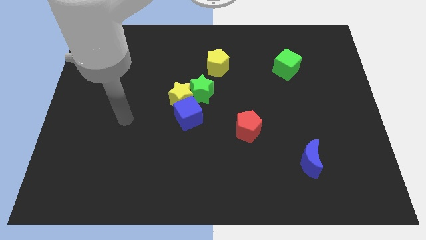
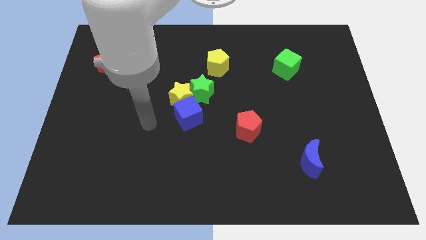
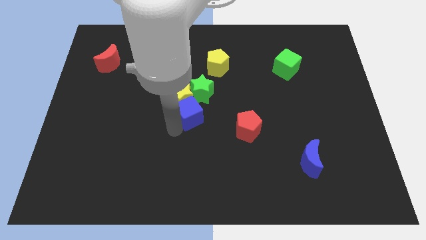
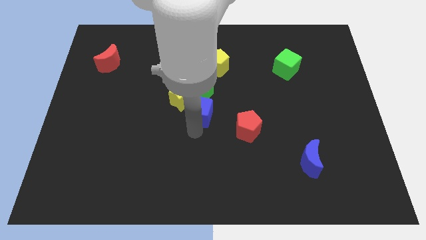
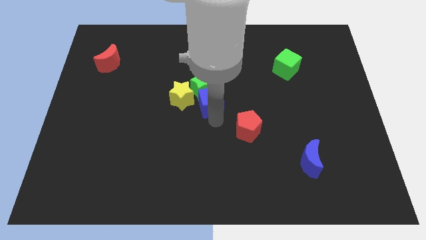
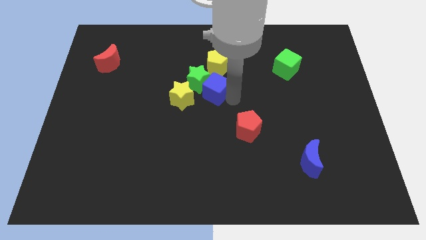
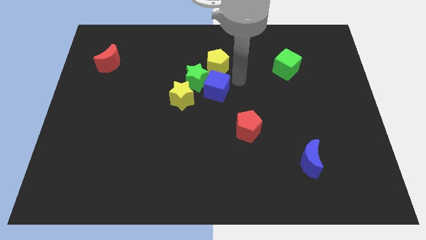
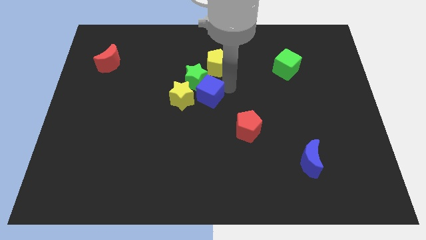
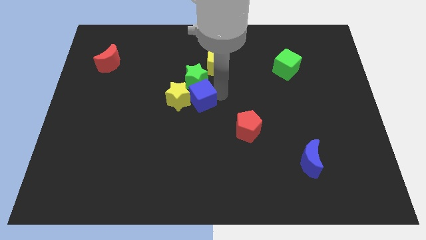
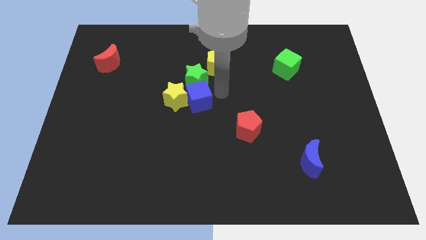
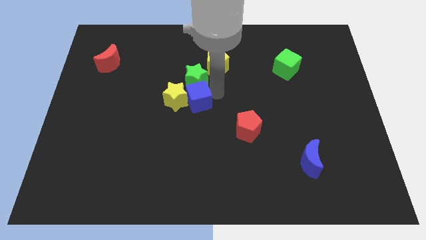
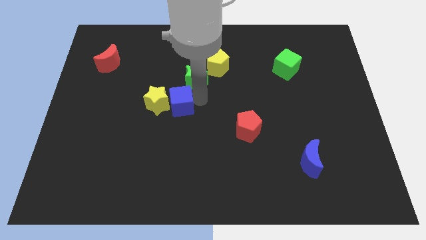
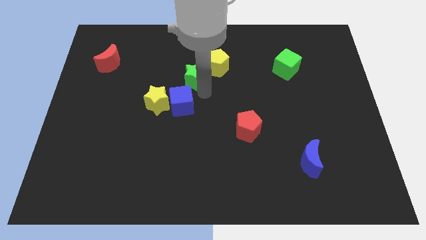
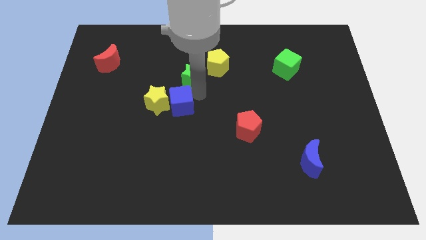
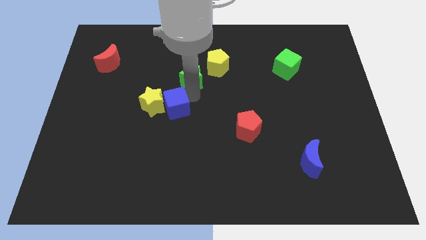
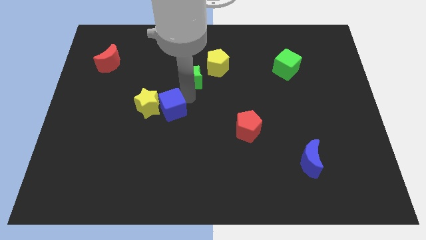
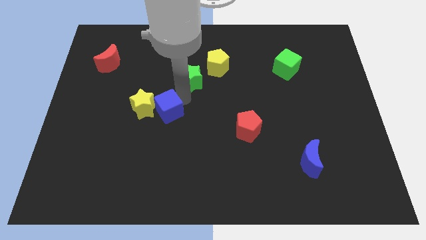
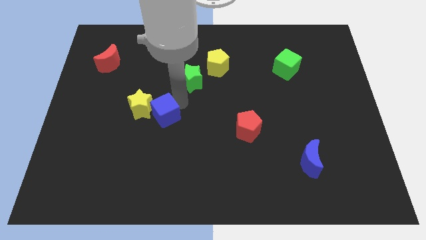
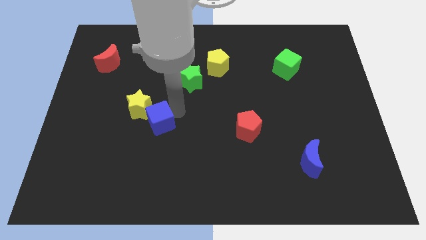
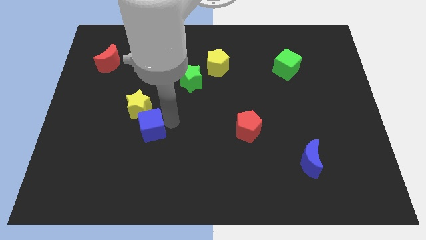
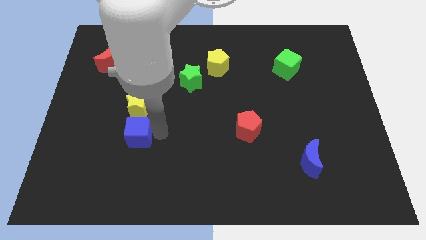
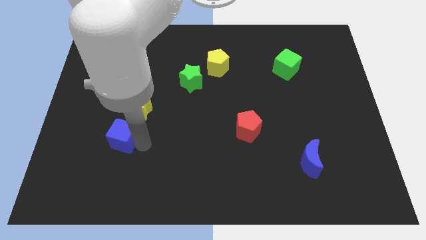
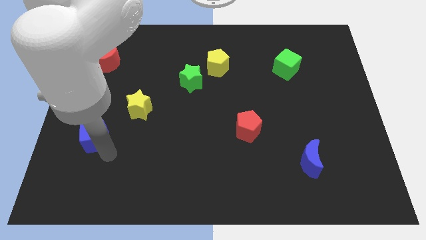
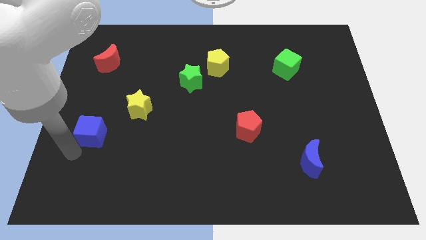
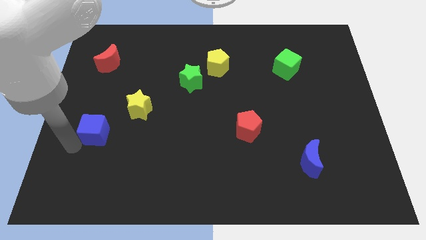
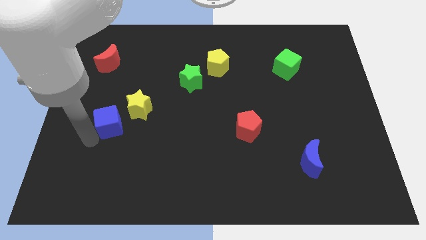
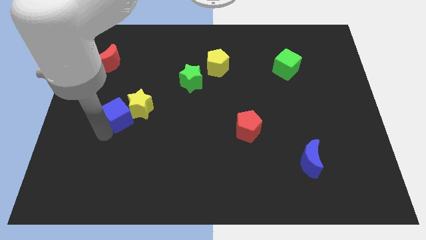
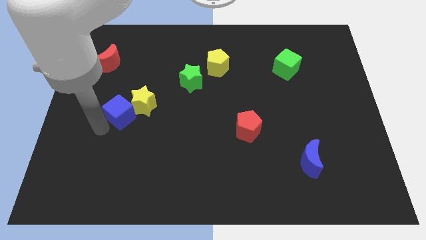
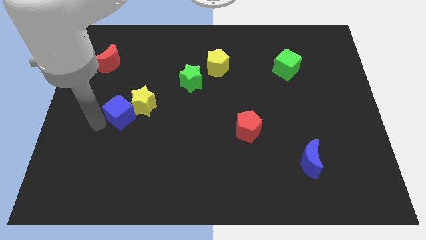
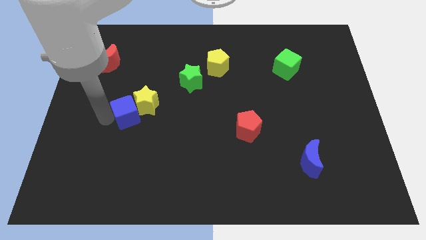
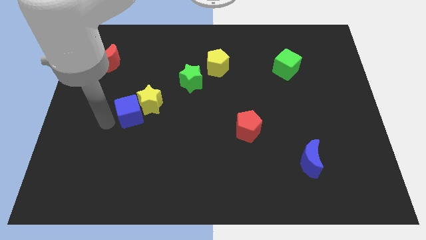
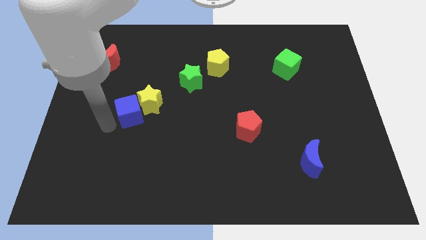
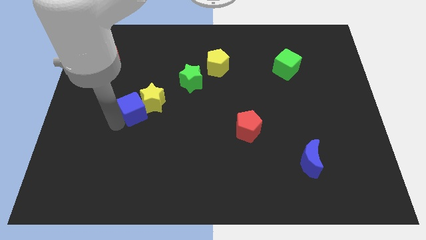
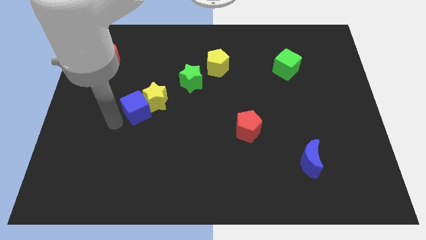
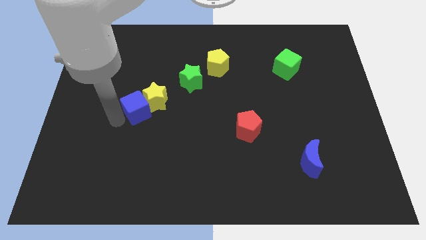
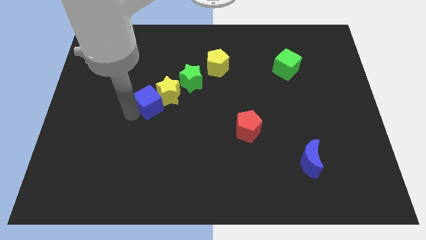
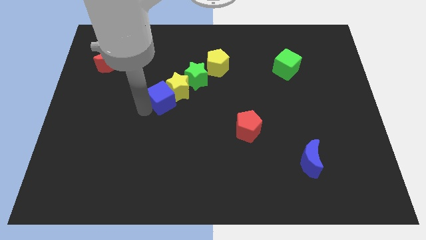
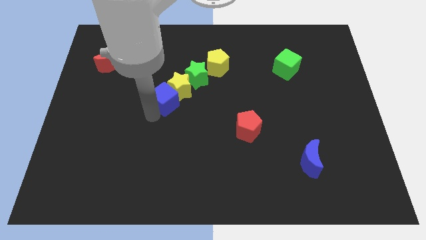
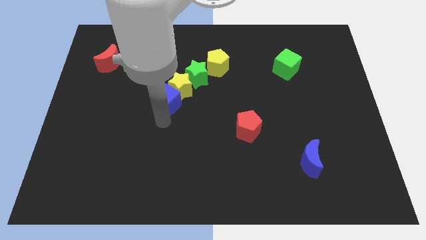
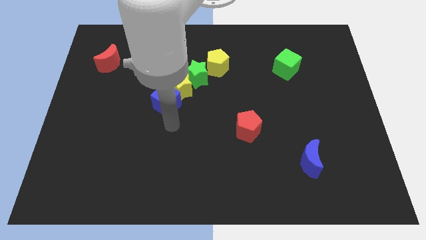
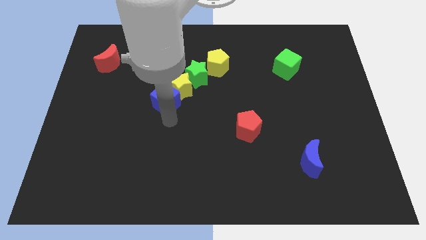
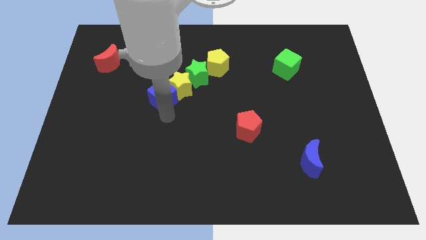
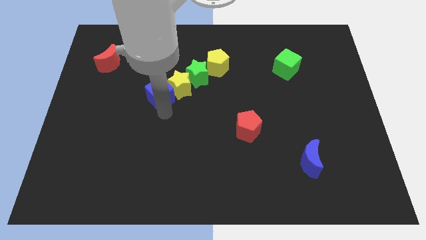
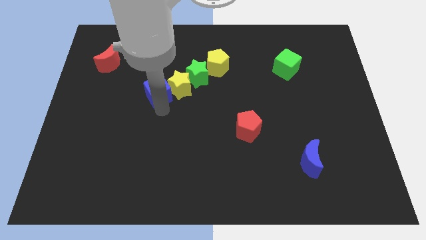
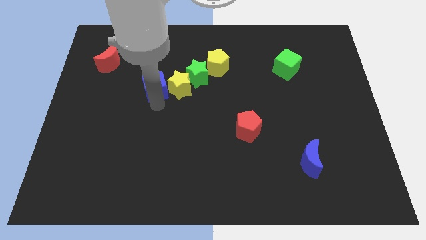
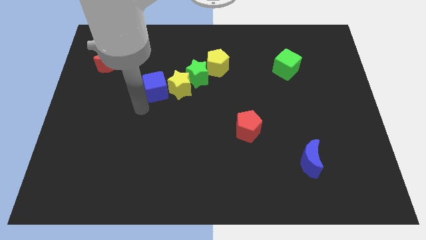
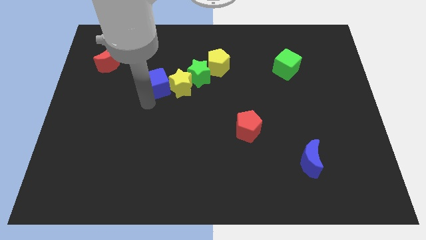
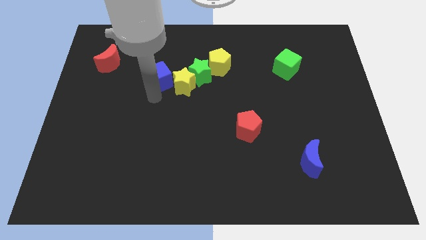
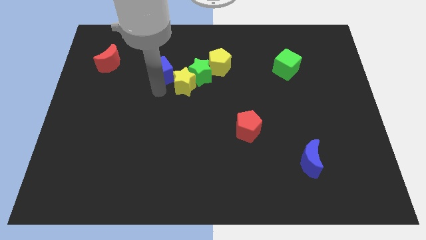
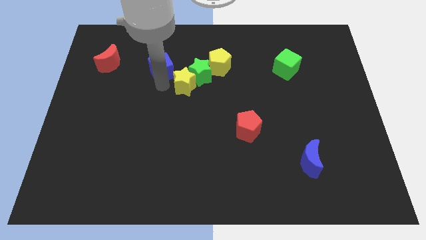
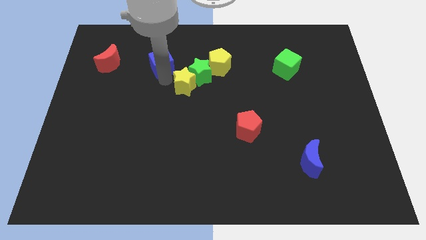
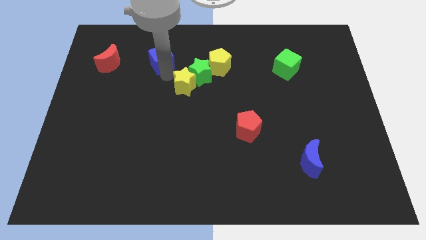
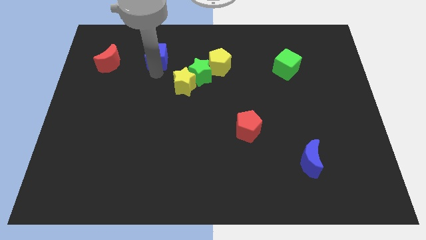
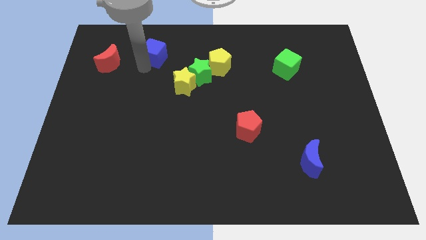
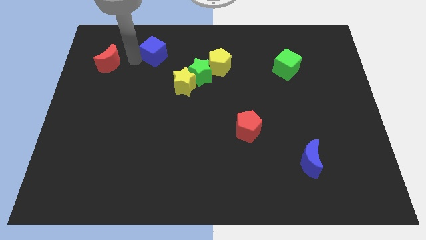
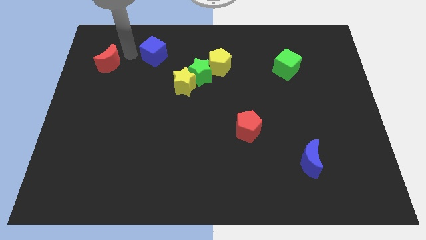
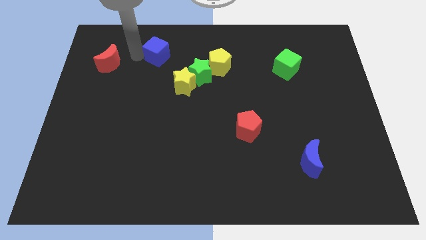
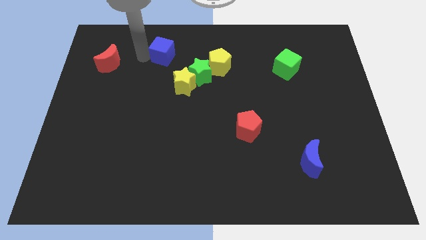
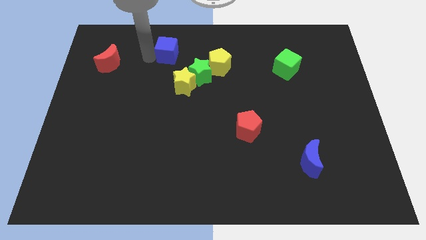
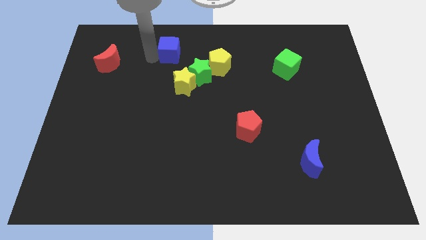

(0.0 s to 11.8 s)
push the blue cube to the top of the yellow star

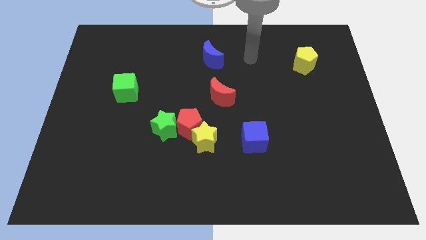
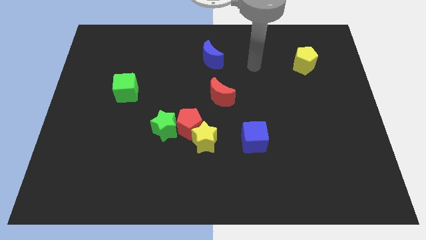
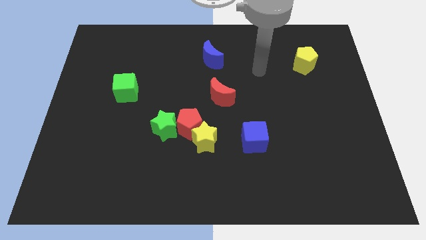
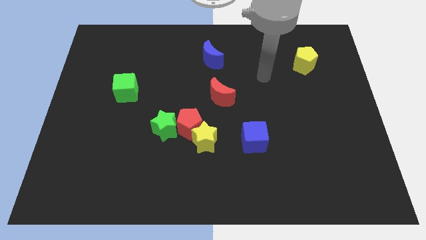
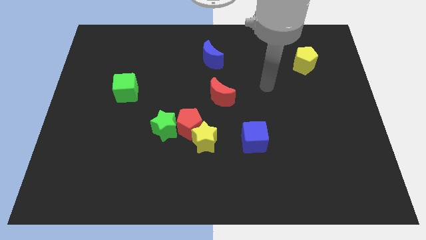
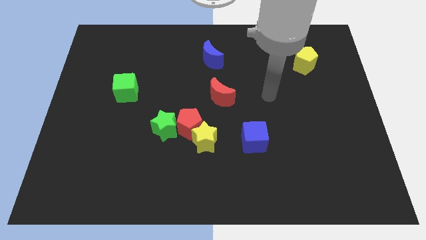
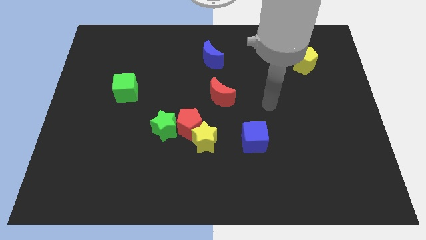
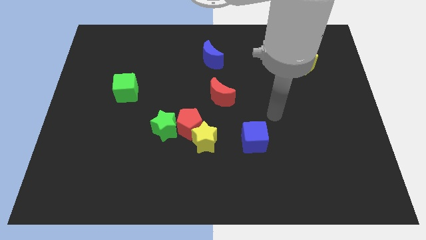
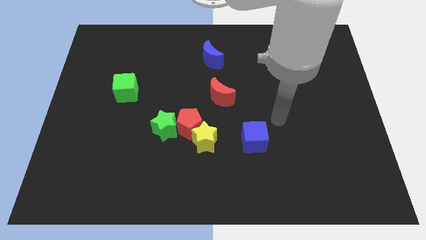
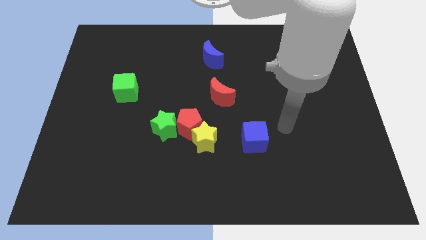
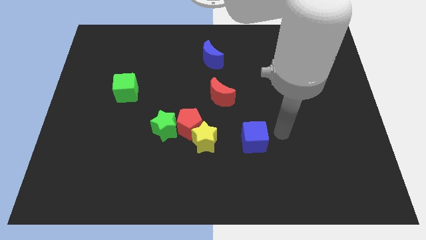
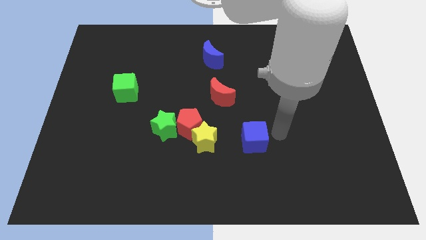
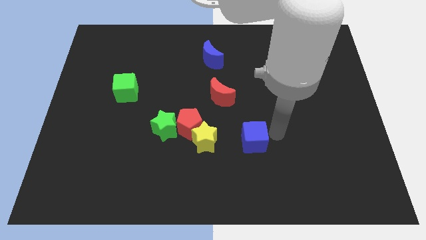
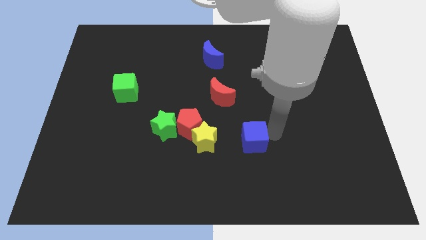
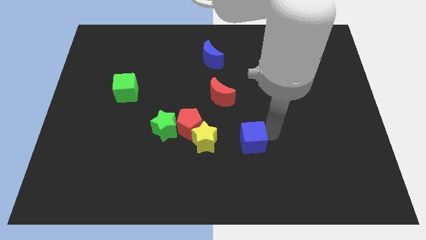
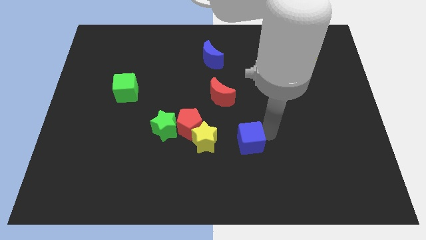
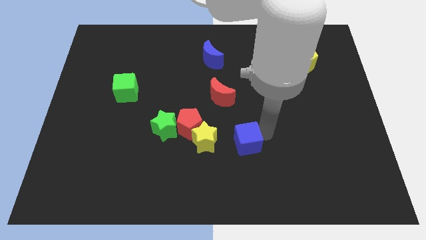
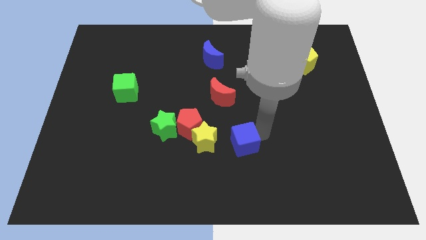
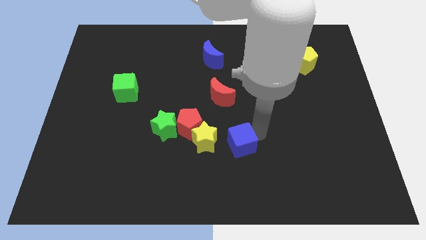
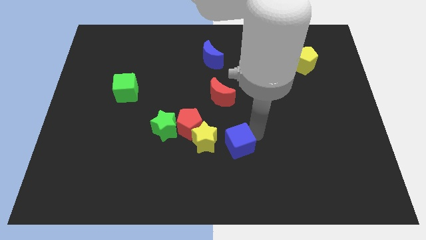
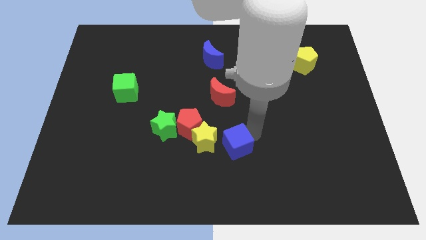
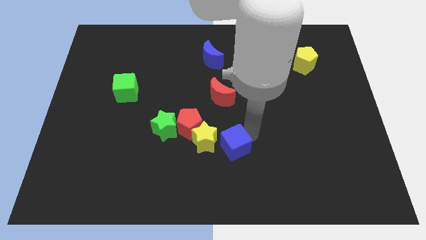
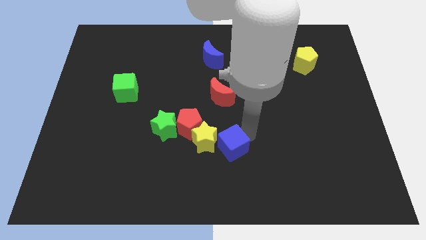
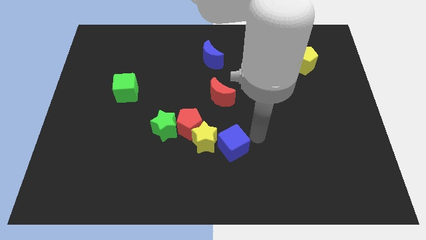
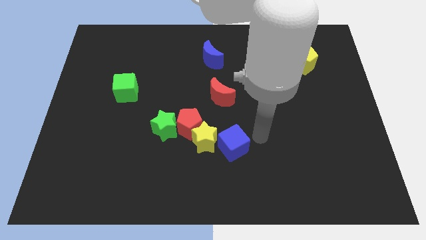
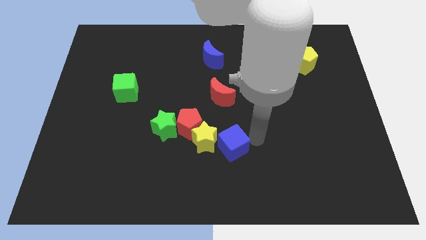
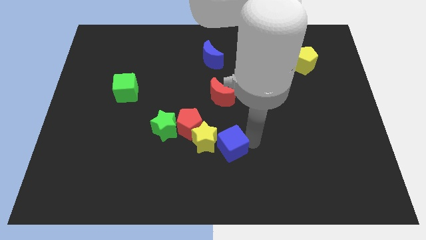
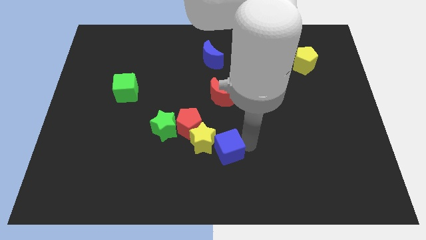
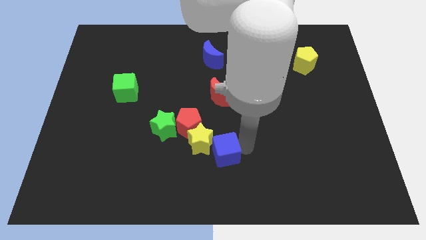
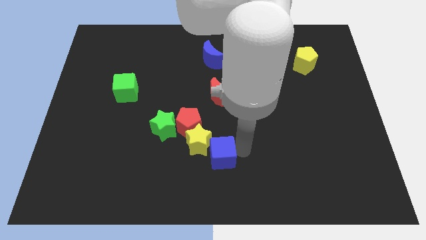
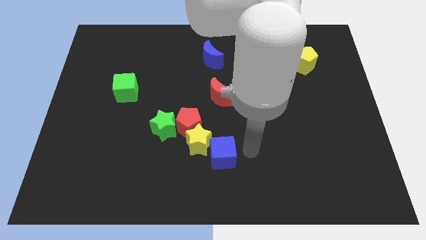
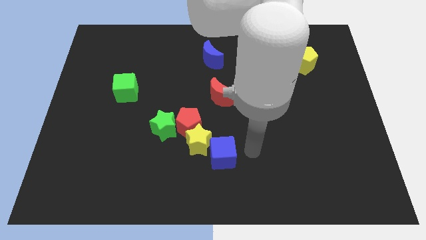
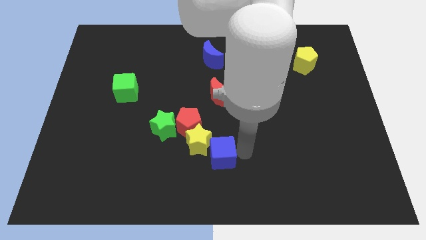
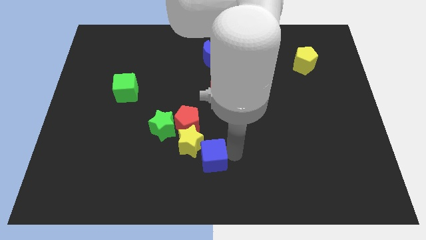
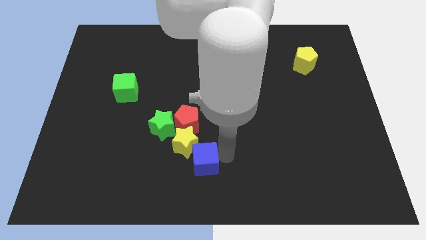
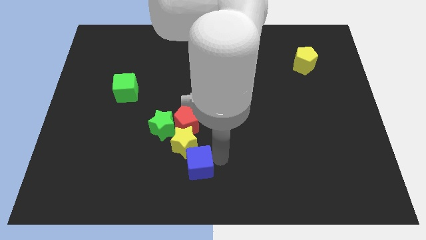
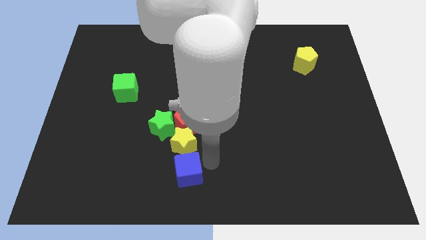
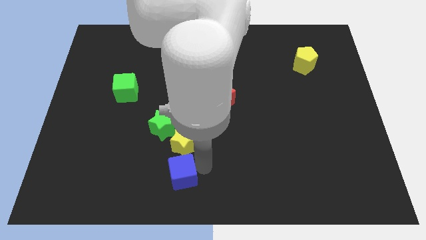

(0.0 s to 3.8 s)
move the blue cube below the green star
